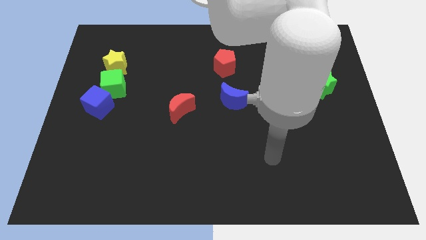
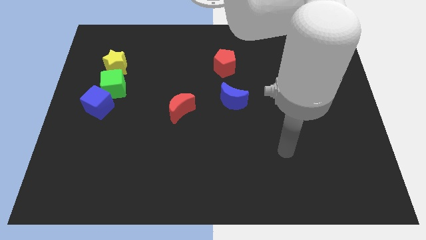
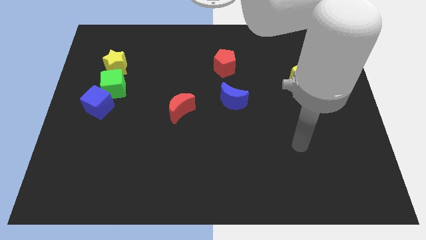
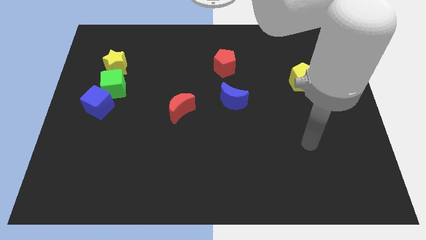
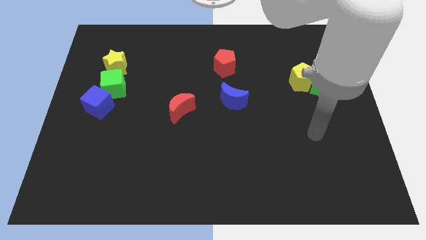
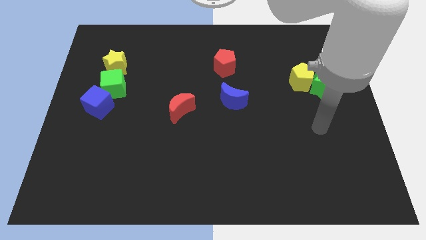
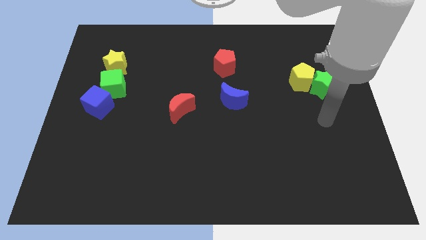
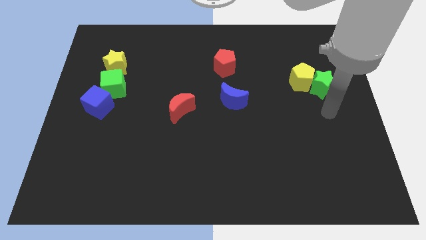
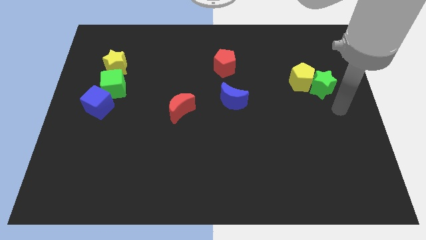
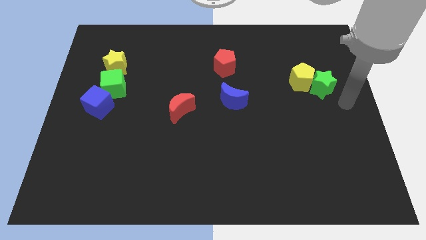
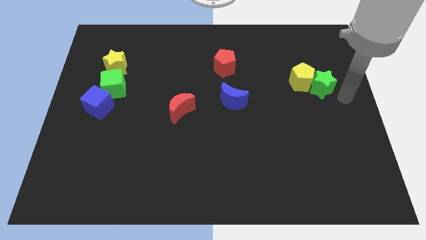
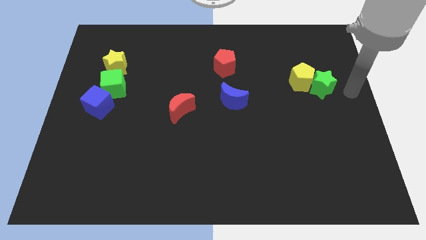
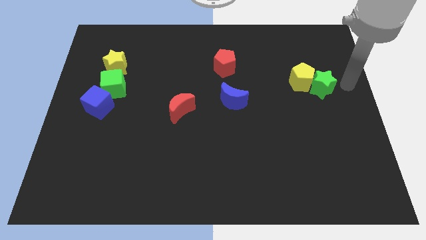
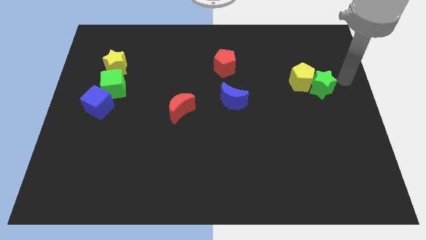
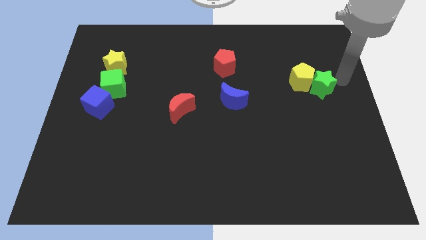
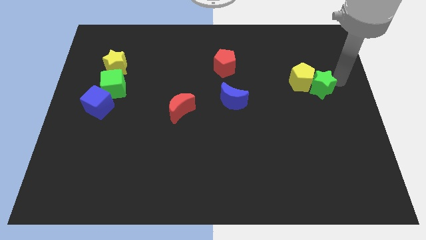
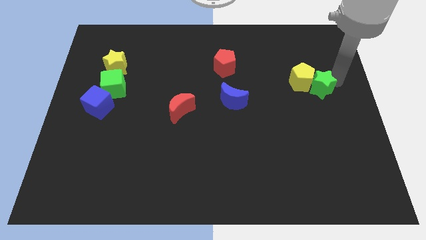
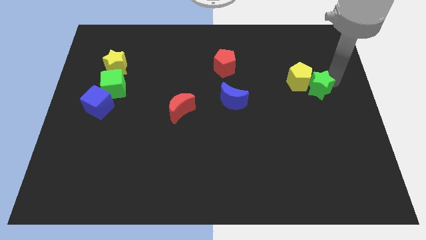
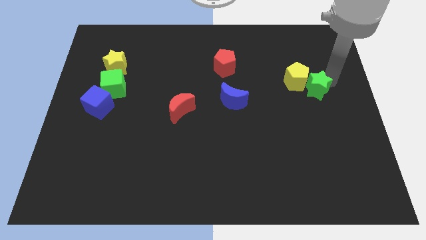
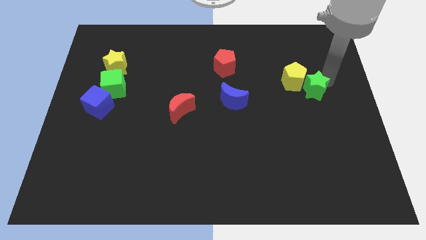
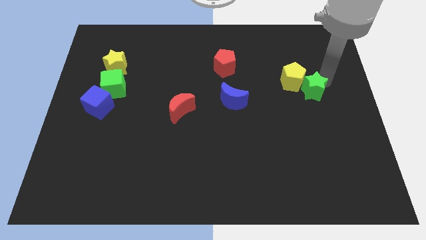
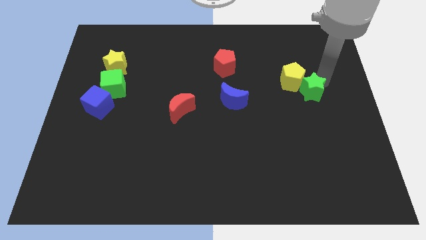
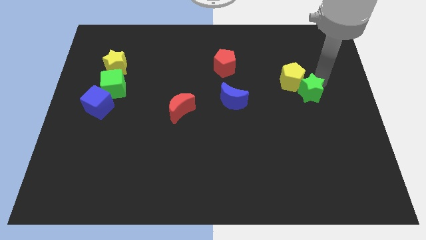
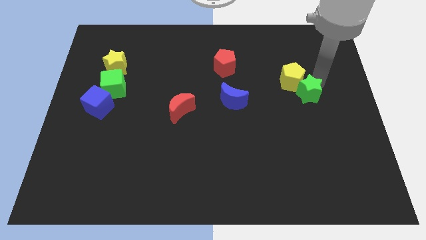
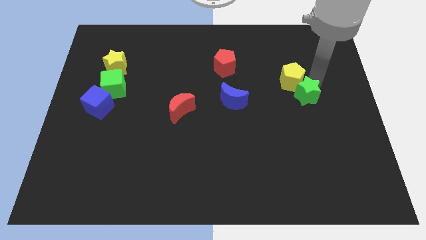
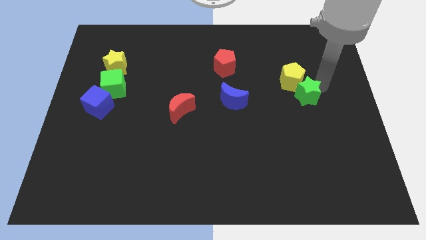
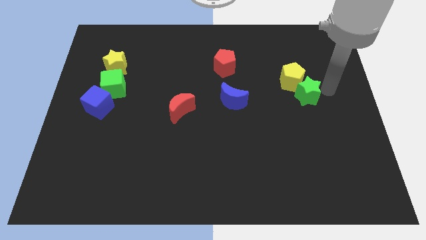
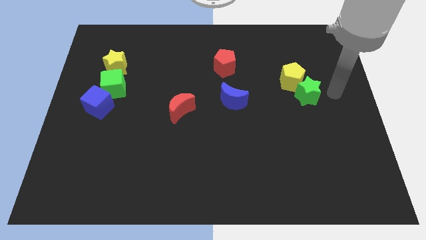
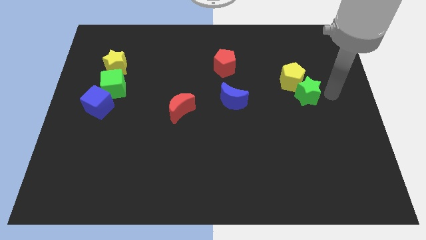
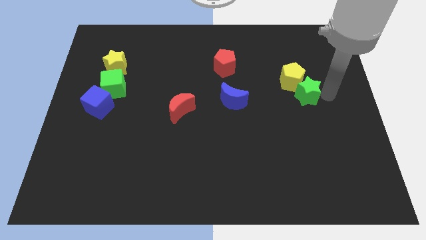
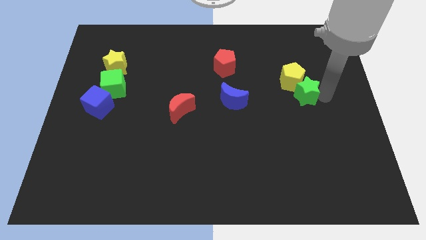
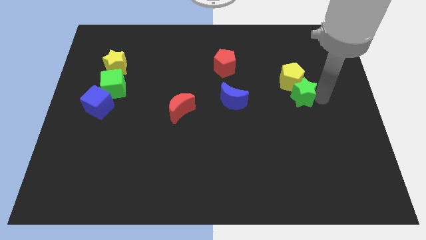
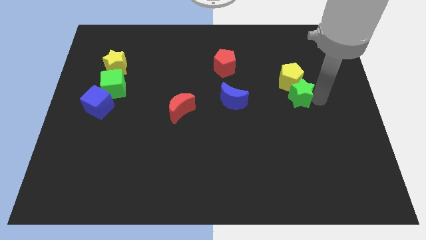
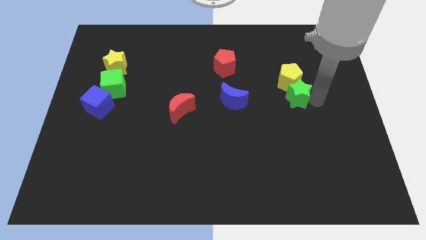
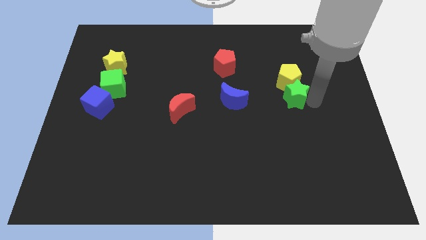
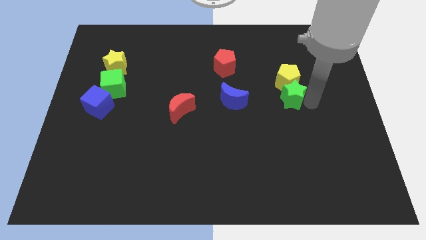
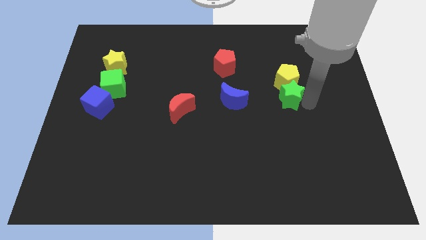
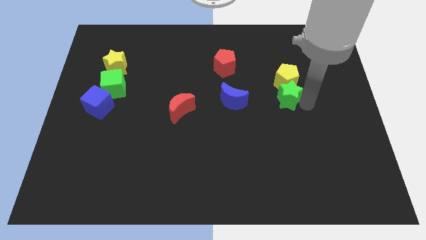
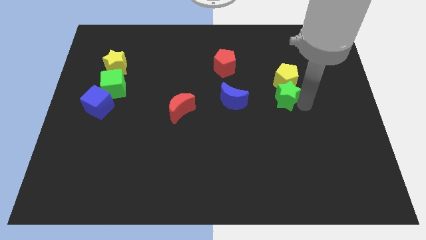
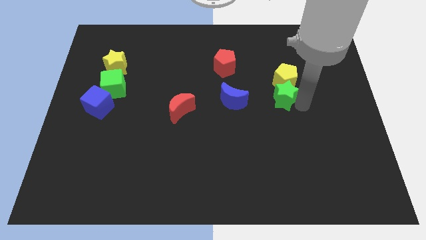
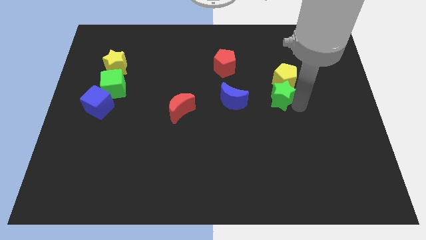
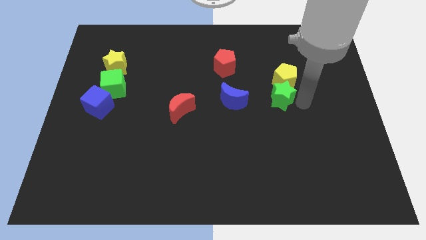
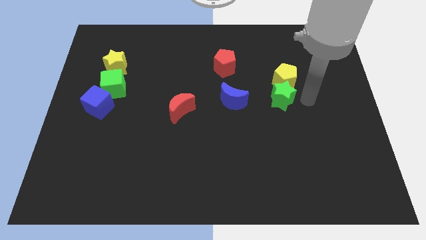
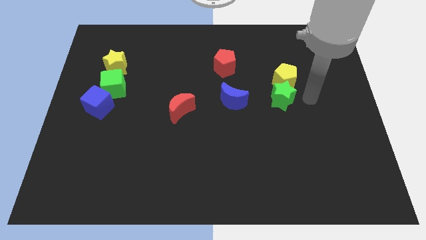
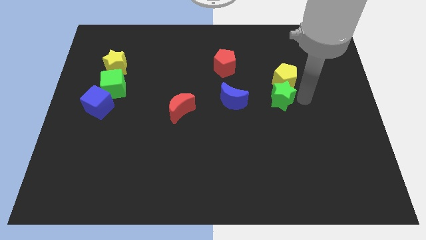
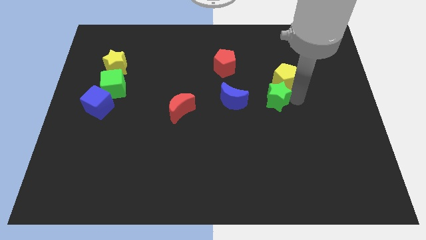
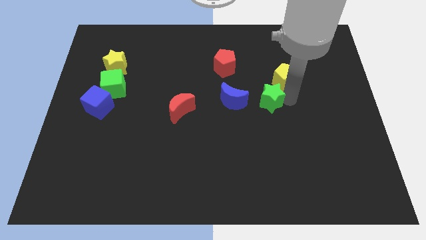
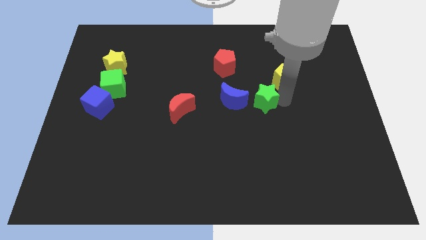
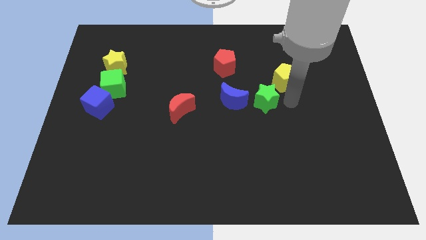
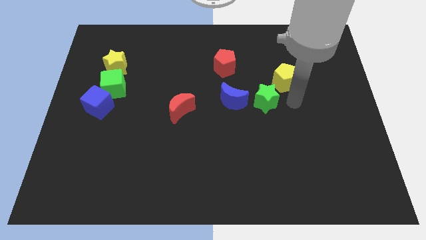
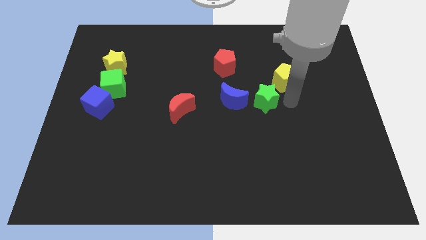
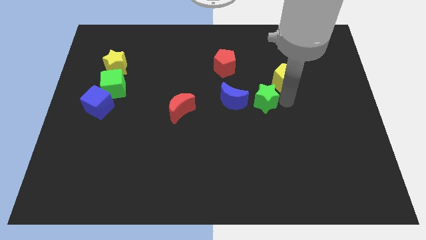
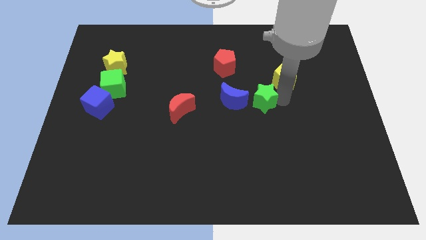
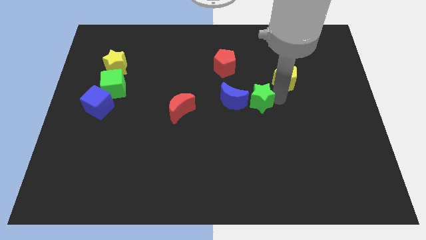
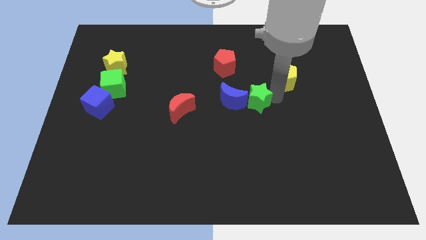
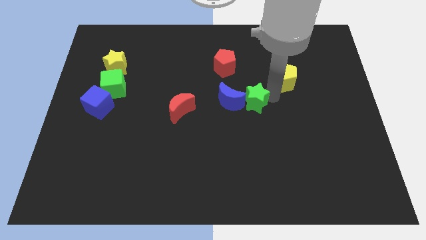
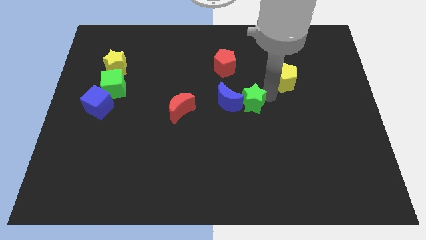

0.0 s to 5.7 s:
slide the green star towards the blue moon

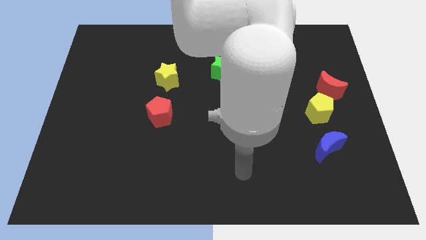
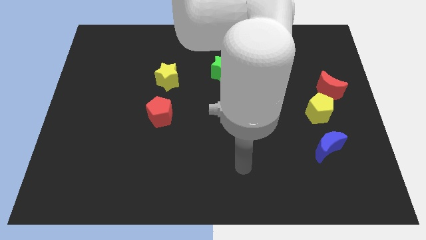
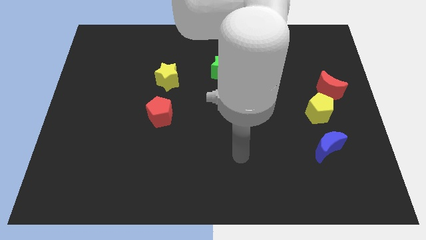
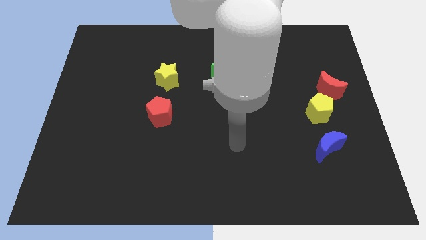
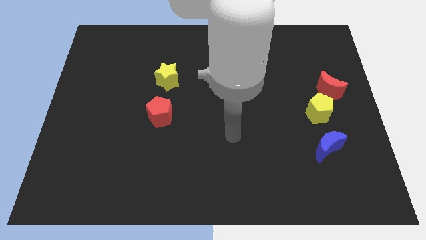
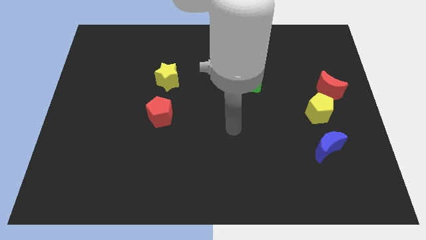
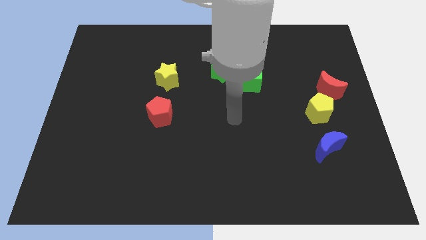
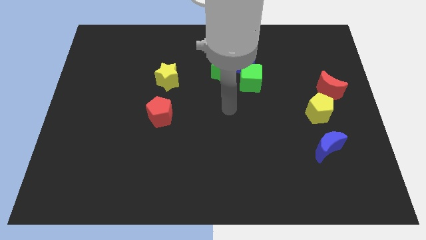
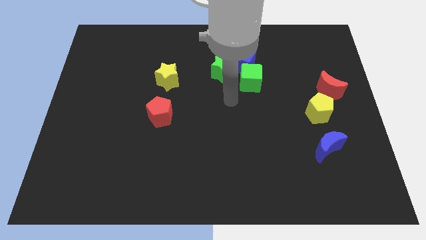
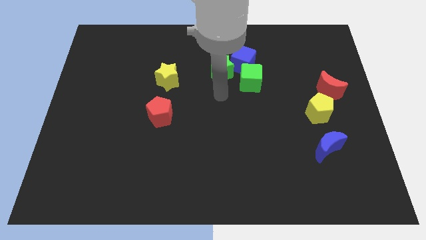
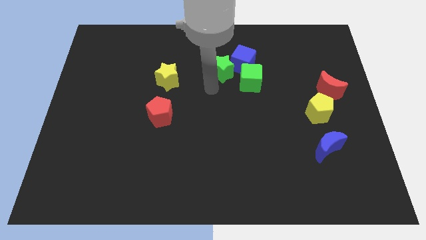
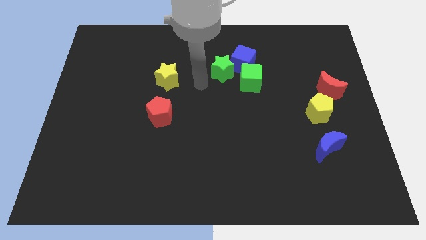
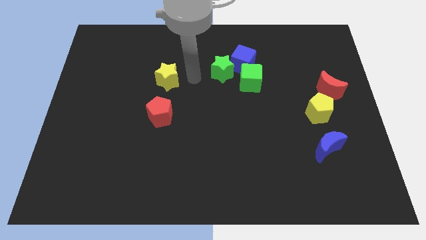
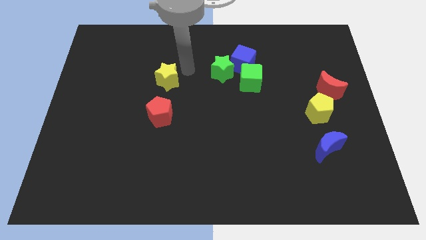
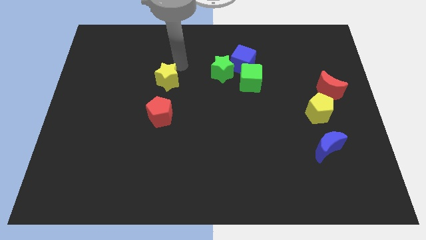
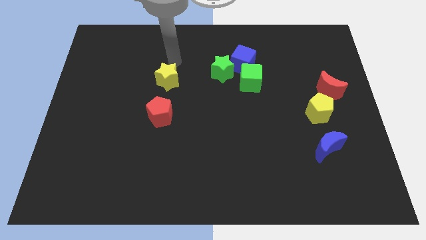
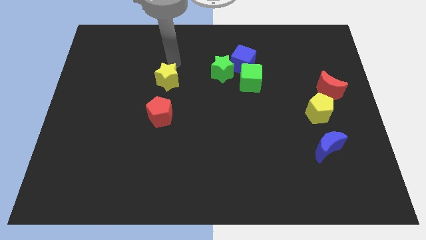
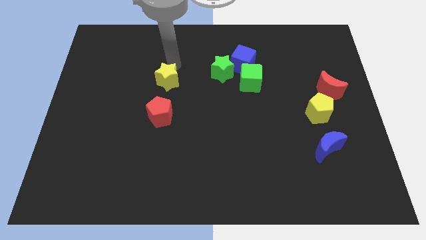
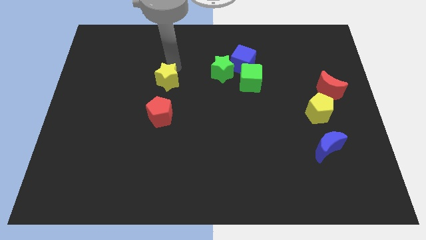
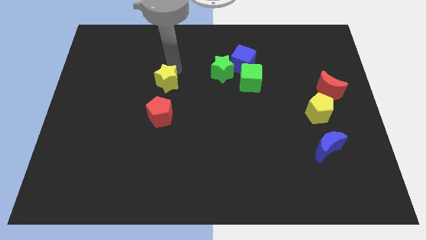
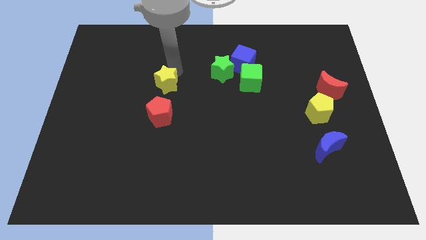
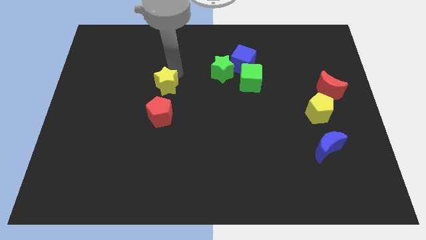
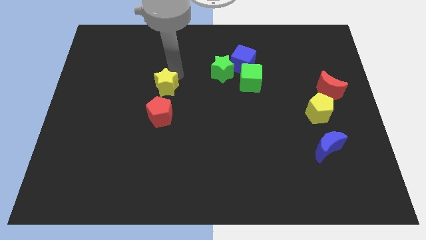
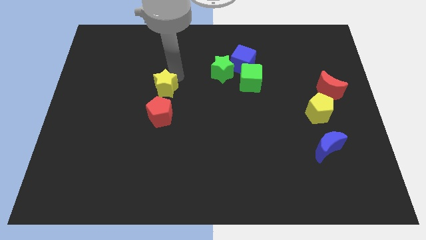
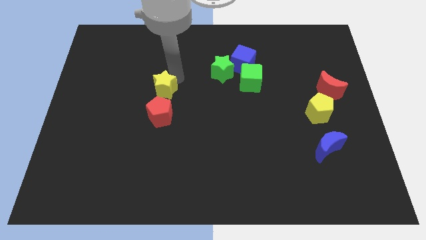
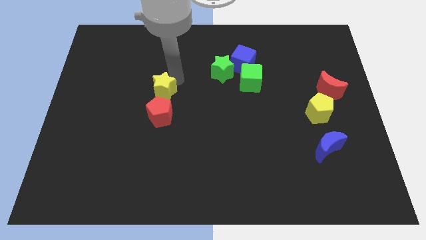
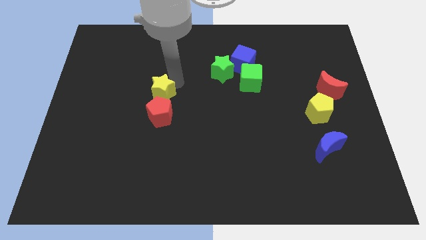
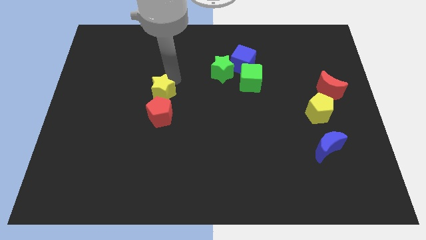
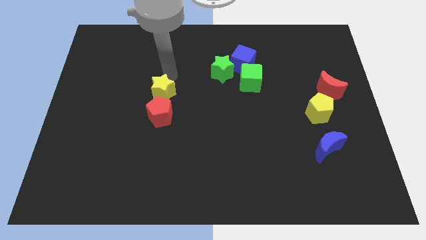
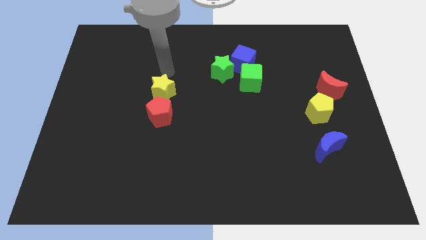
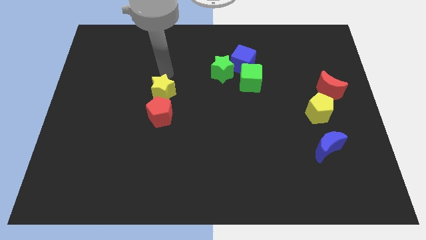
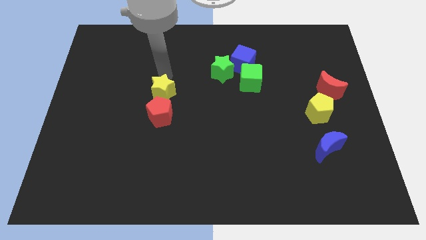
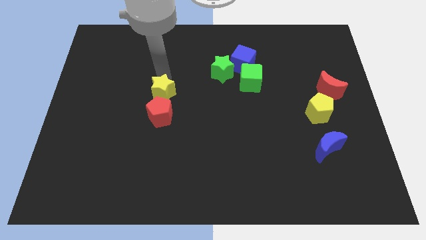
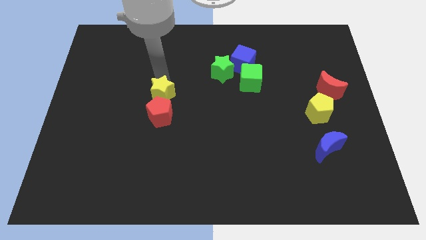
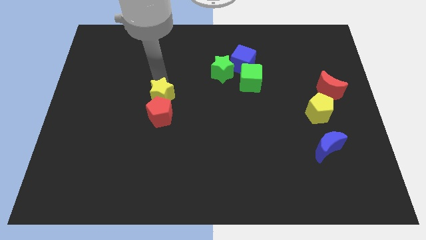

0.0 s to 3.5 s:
put the yellow star to the red pentagon
